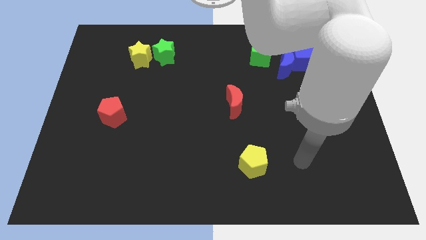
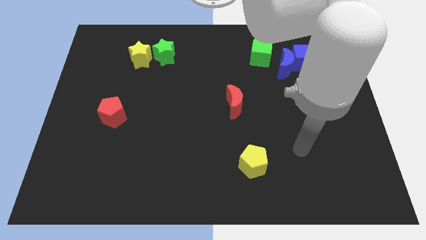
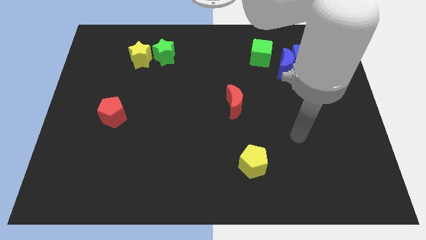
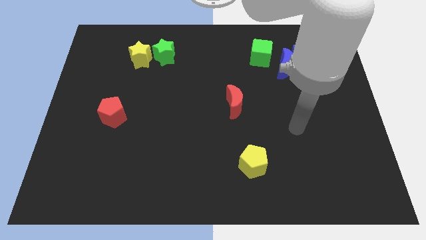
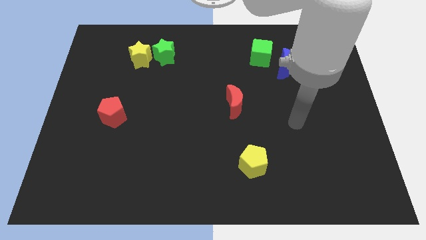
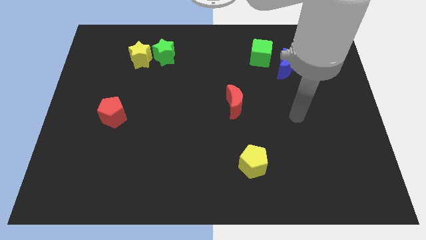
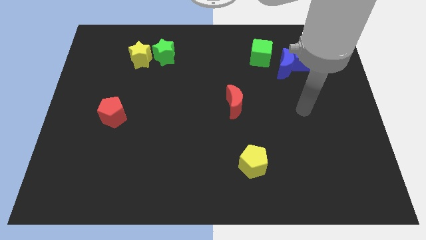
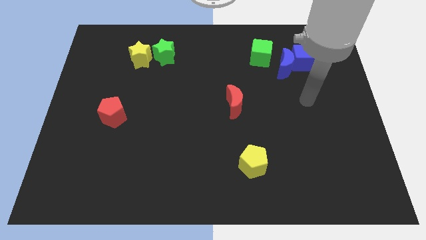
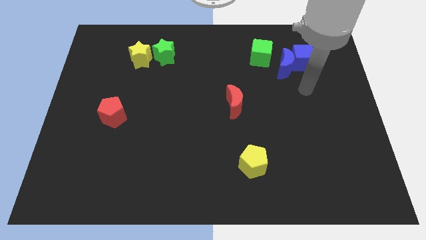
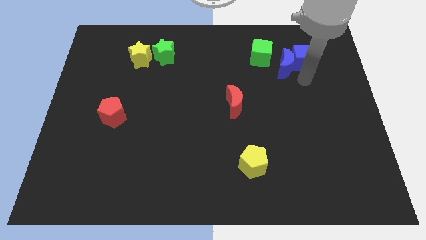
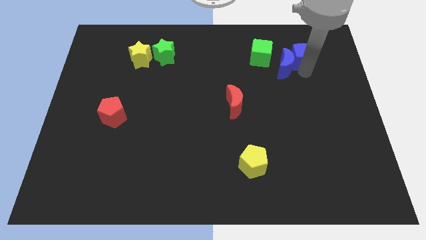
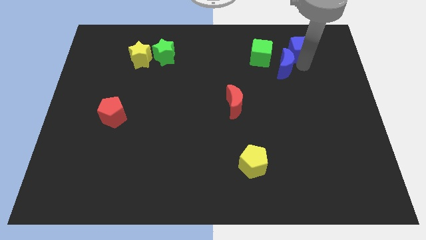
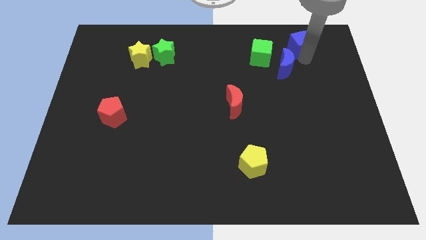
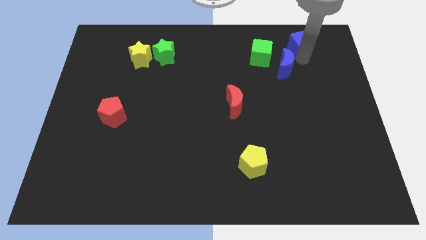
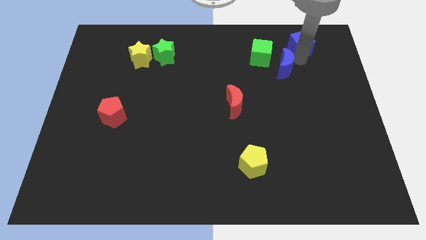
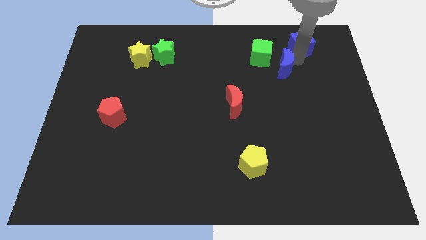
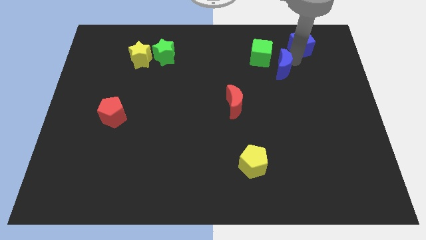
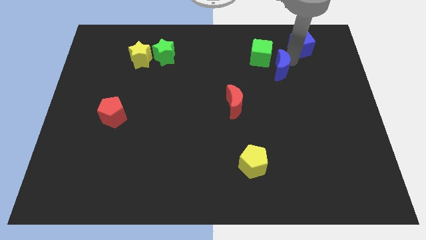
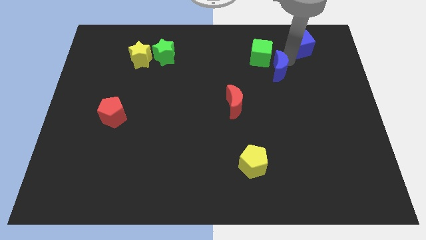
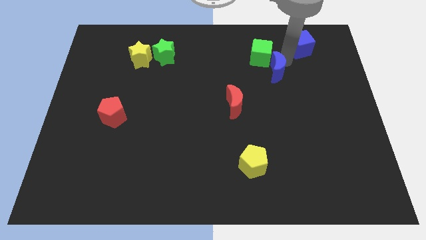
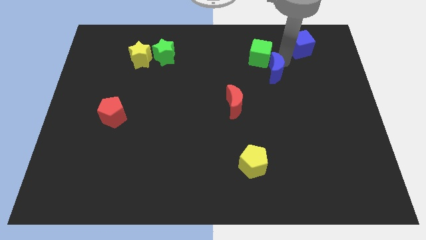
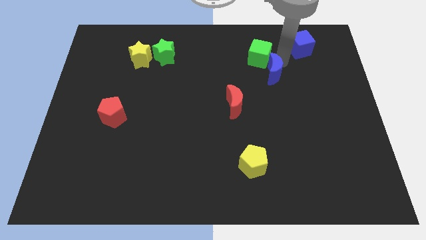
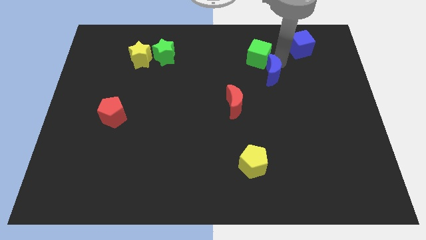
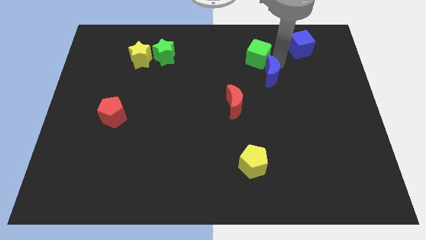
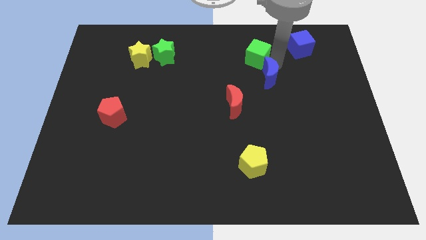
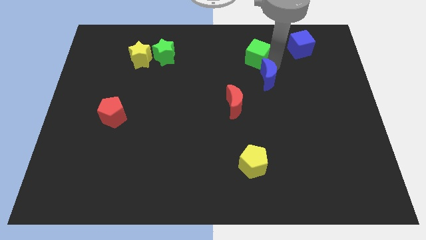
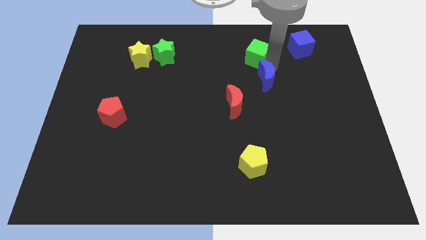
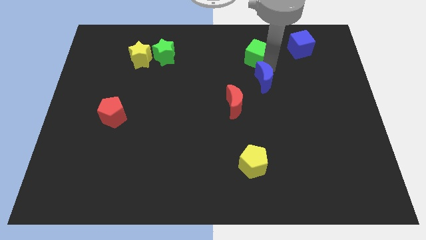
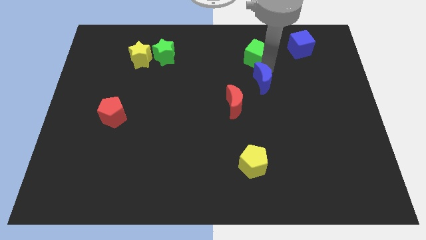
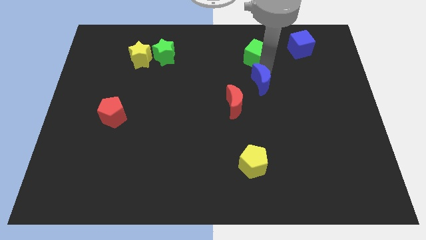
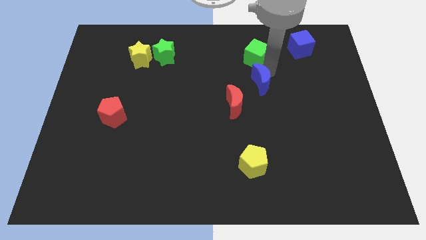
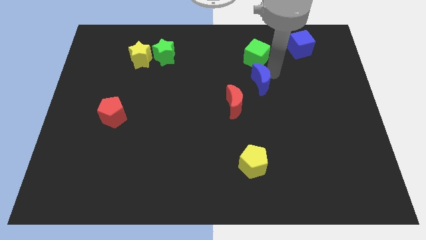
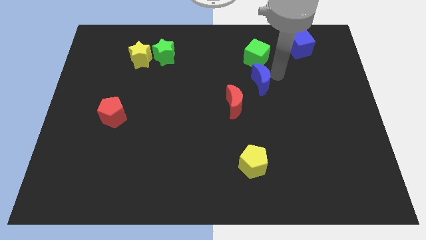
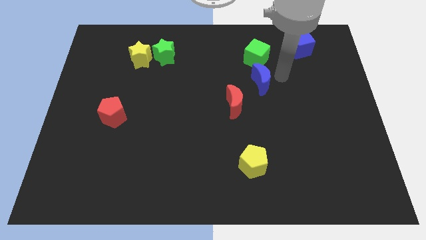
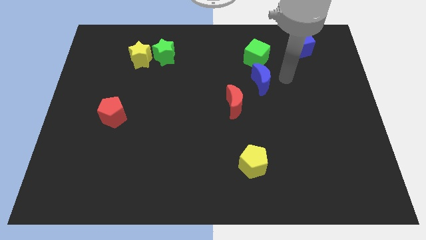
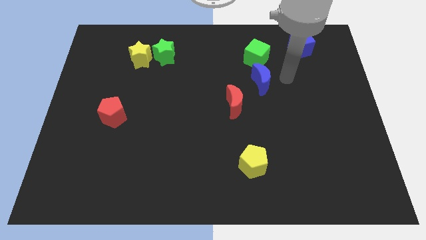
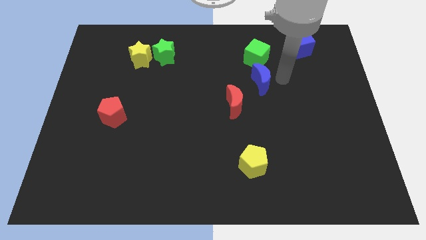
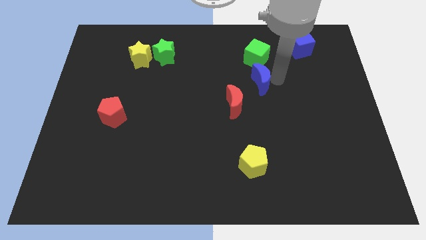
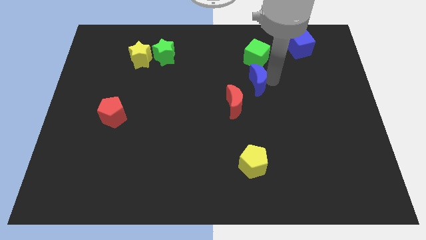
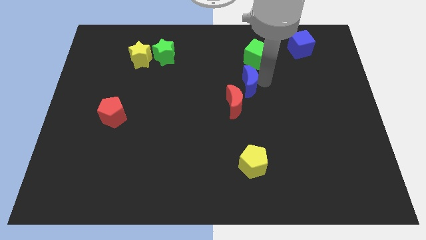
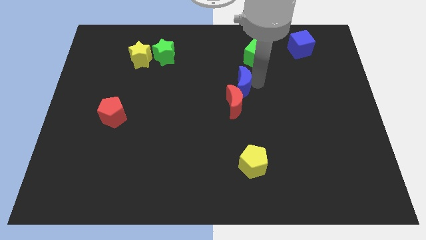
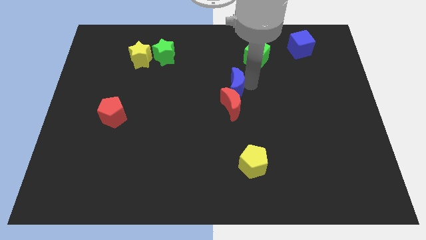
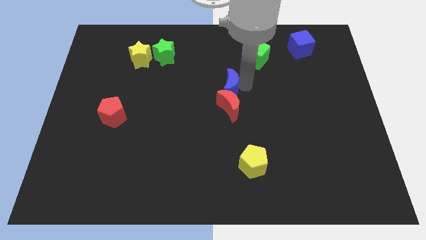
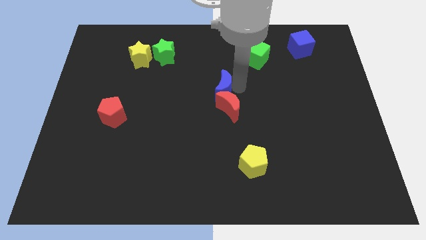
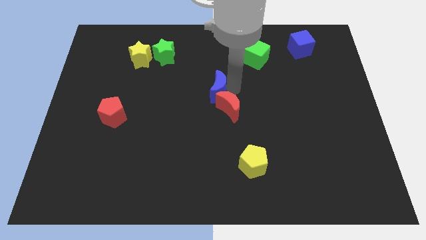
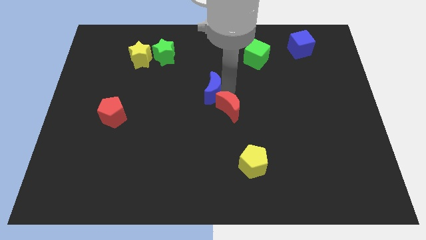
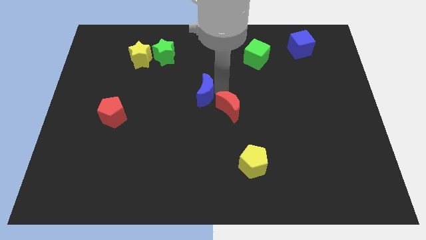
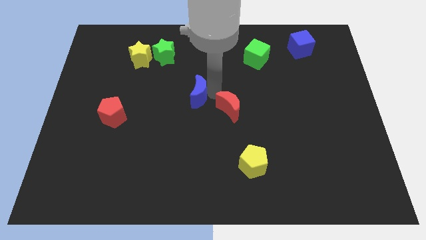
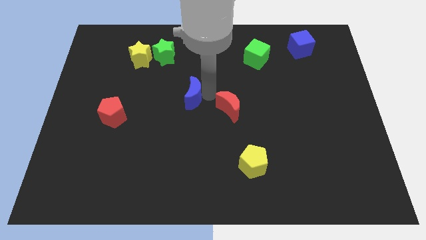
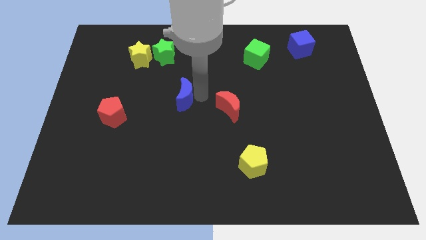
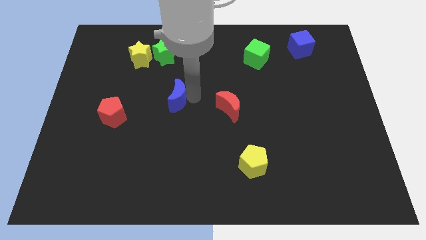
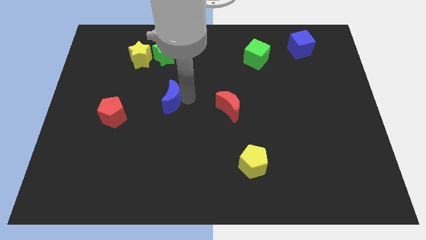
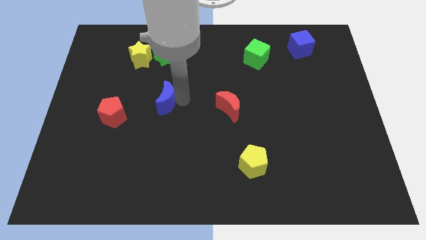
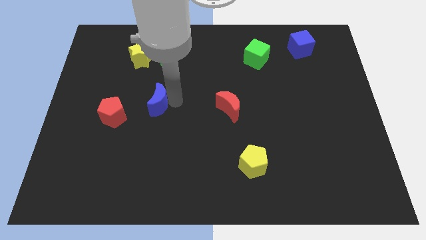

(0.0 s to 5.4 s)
put the blue moon diagonally up and to the right of the red pentagon

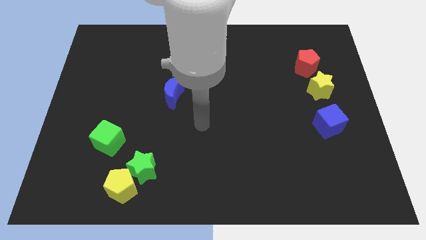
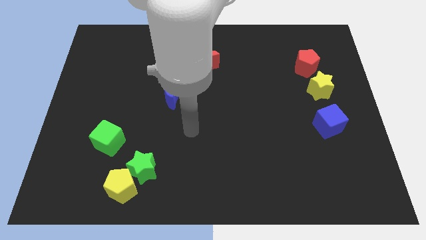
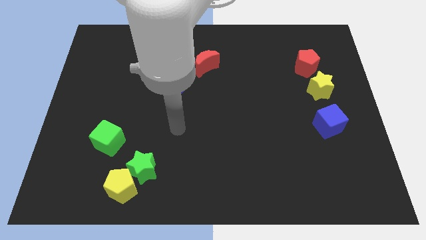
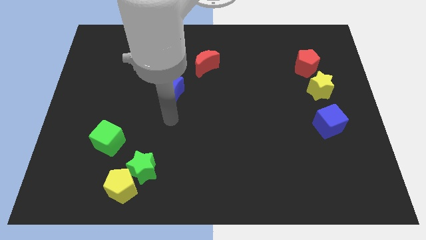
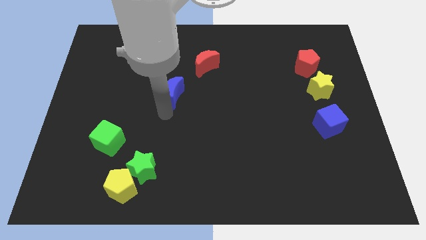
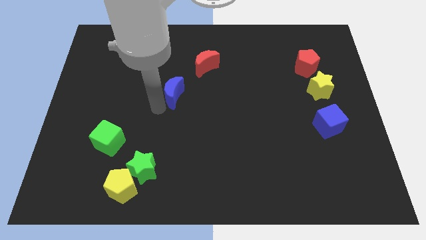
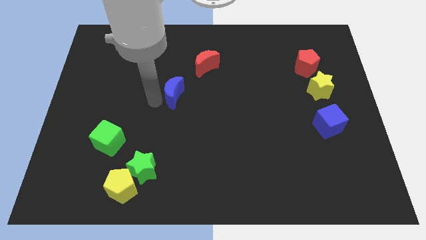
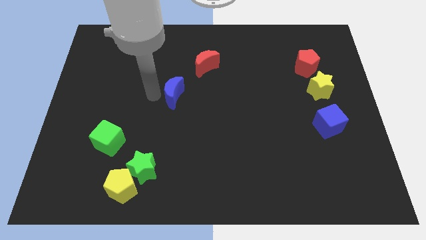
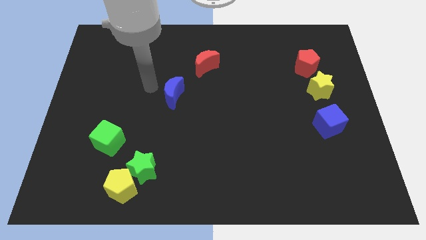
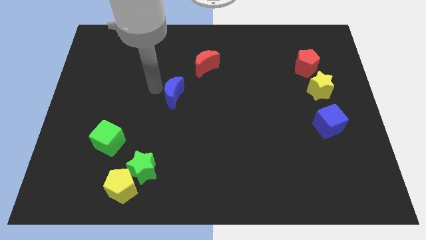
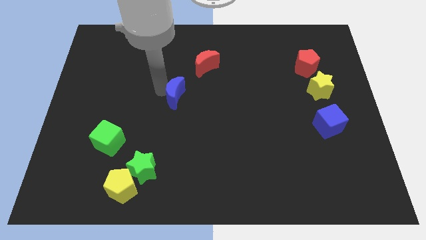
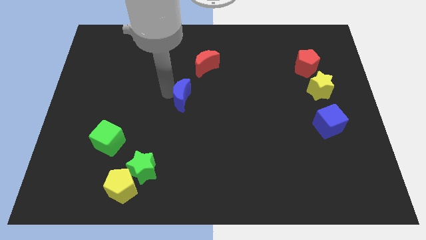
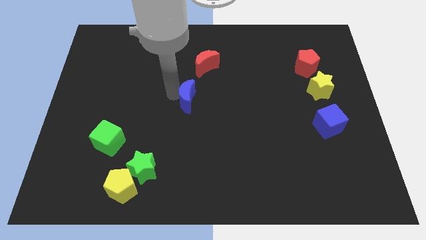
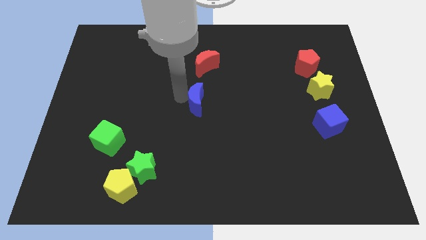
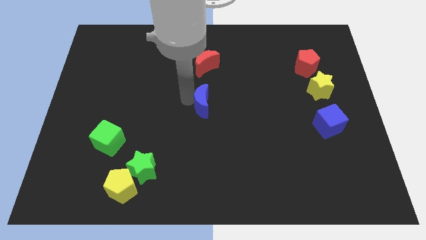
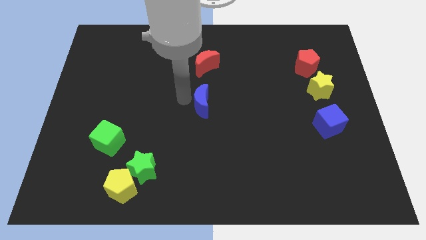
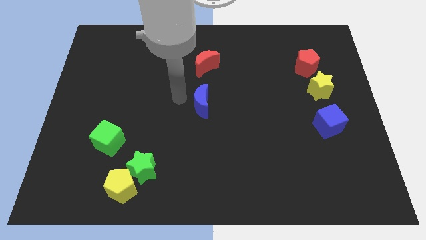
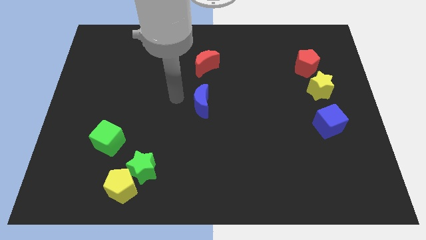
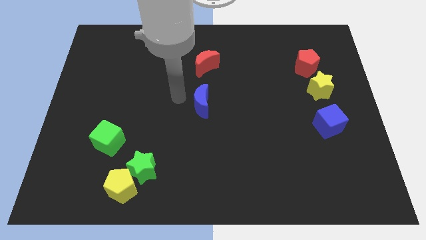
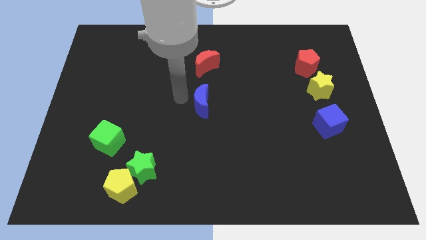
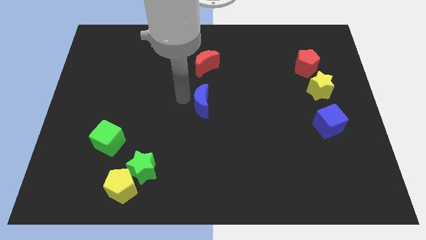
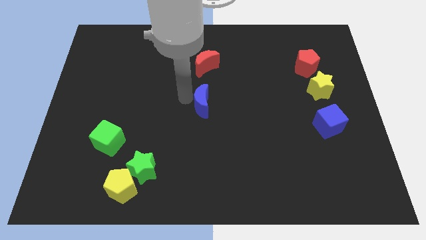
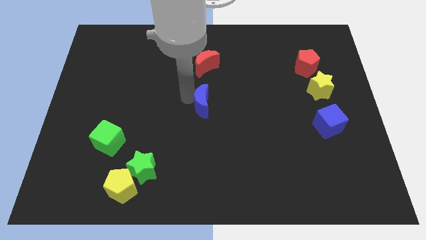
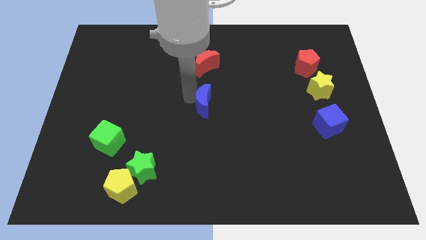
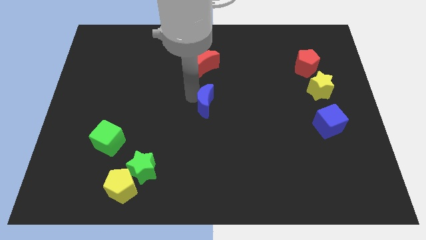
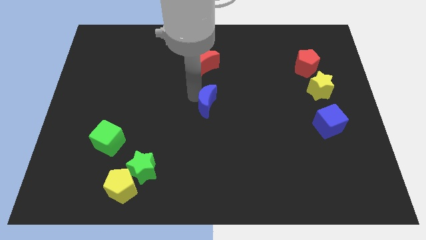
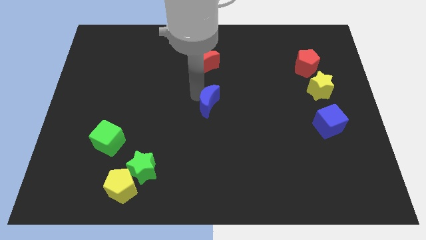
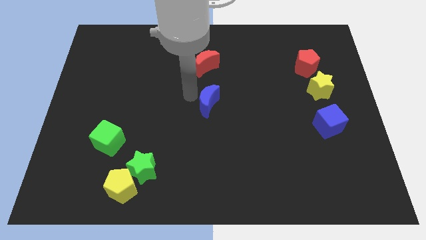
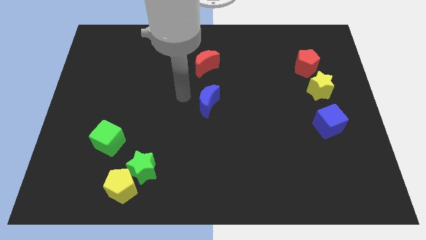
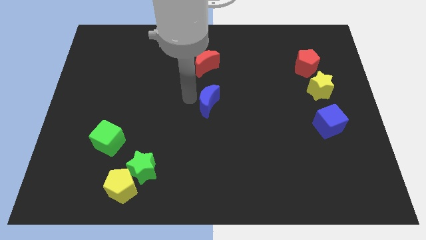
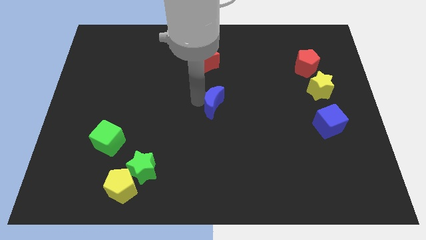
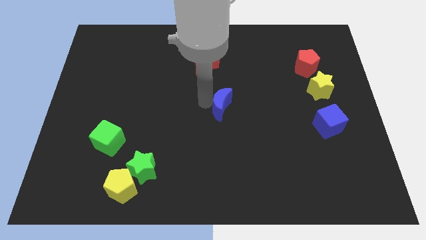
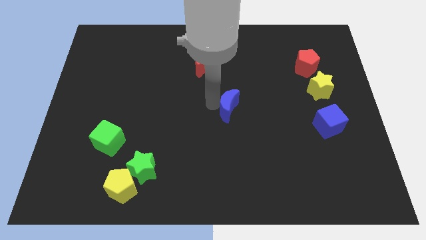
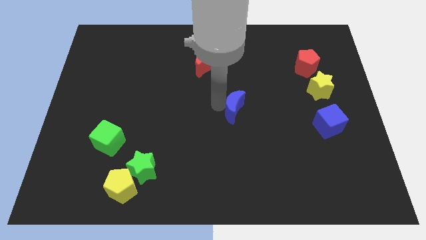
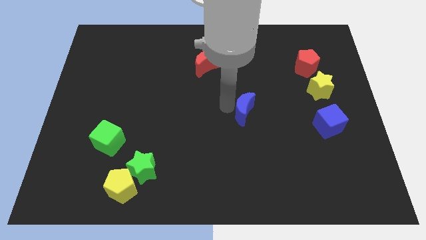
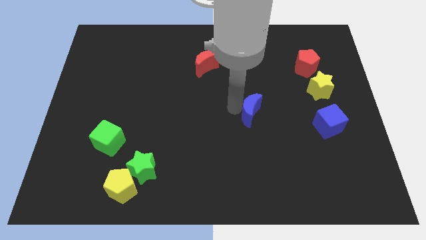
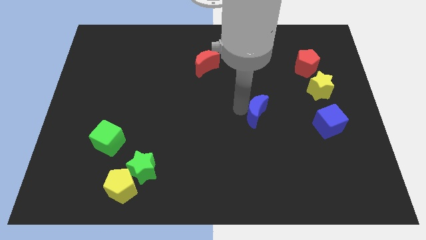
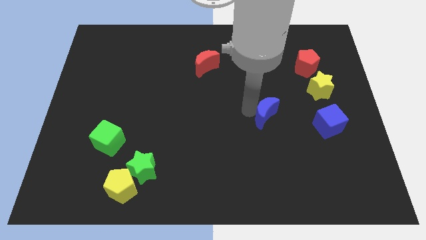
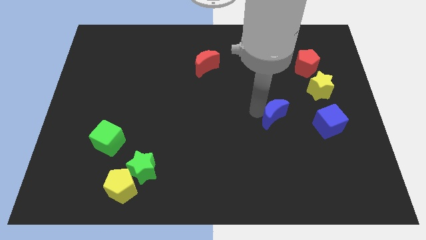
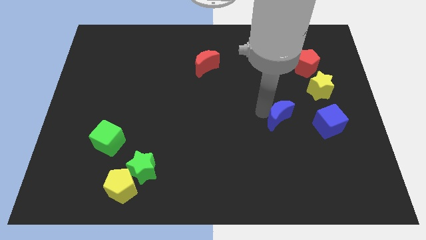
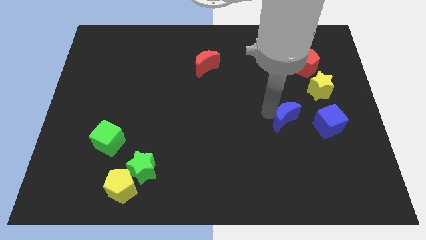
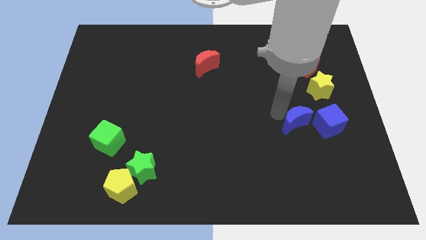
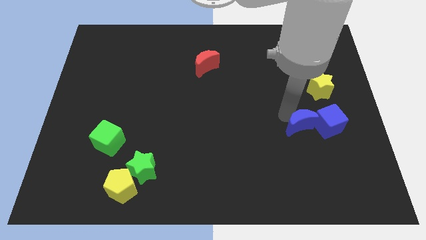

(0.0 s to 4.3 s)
push the blue moon to the bottom left side of the blue cube
